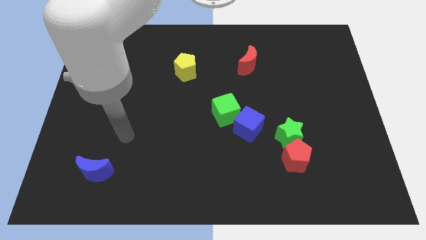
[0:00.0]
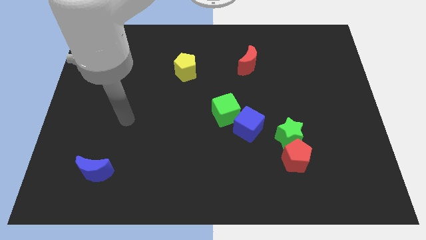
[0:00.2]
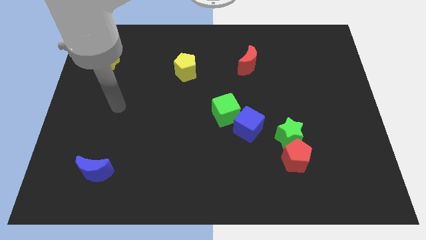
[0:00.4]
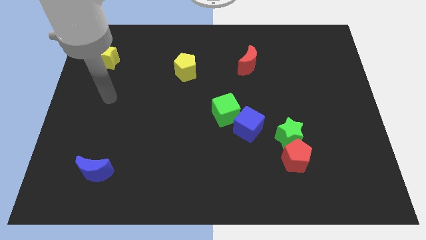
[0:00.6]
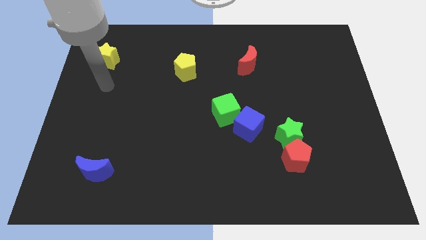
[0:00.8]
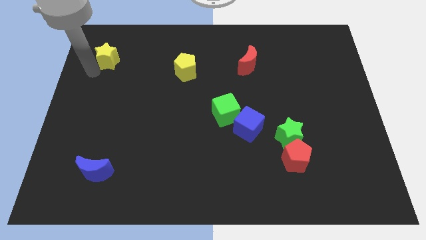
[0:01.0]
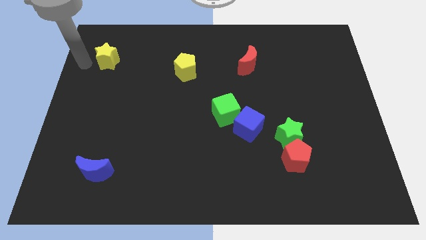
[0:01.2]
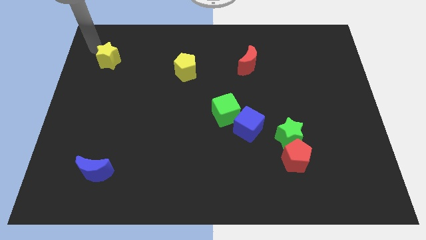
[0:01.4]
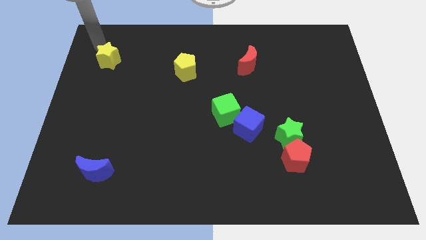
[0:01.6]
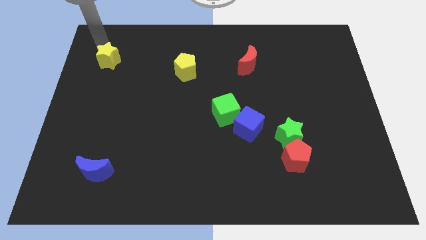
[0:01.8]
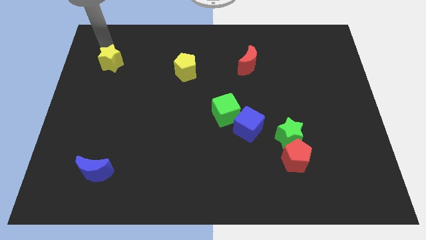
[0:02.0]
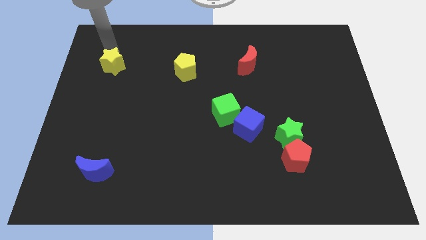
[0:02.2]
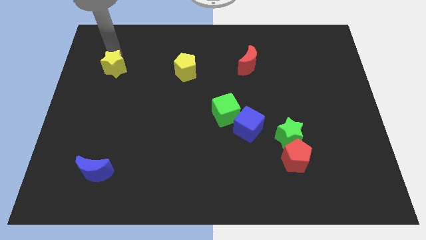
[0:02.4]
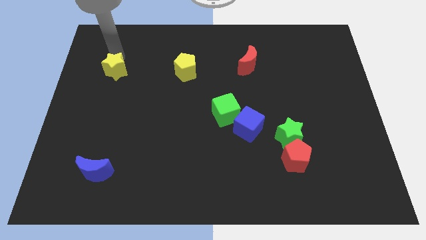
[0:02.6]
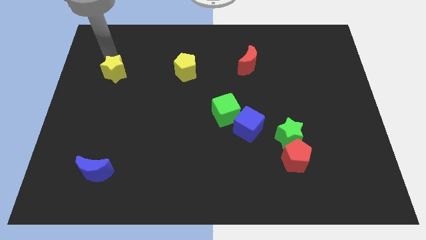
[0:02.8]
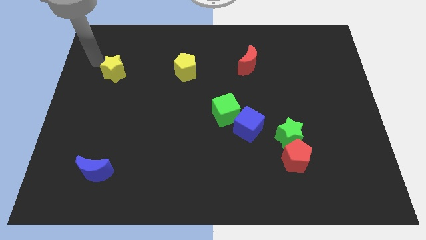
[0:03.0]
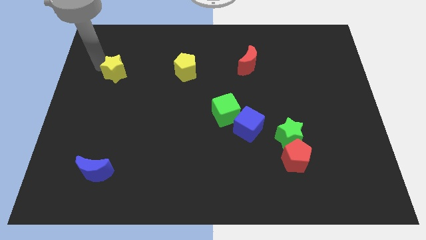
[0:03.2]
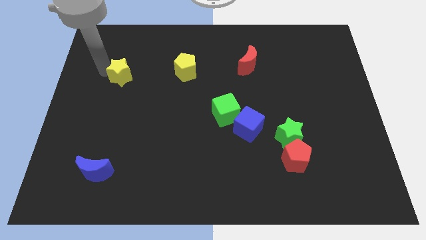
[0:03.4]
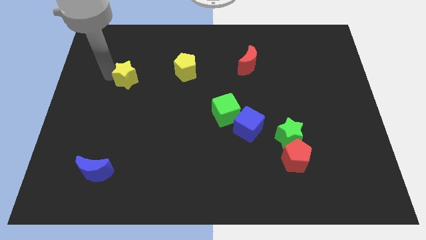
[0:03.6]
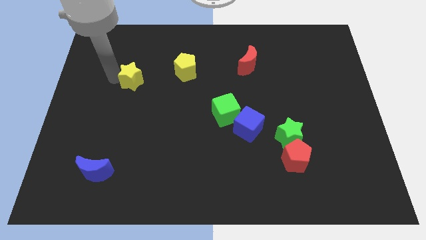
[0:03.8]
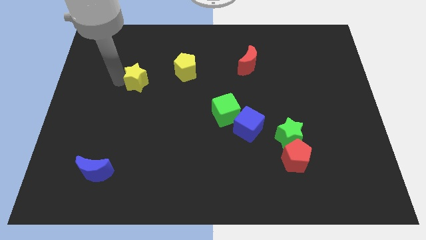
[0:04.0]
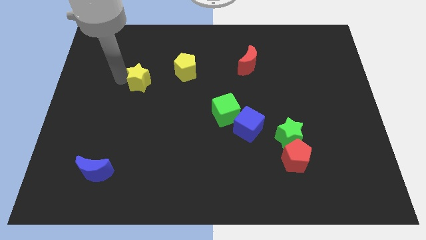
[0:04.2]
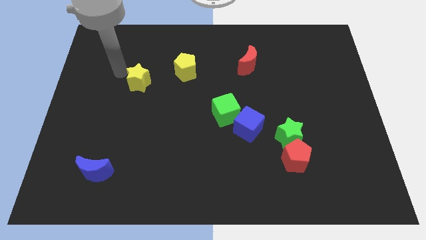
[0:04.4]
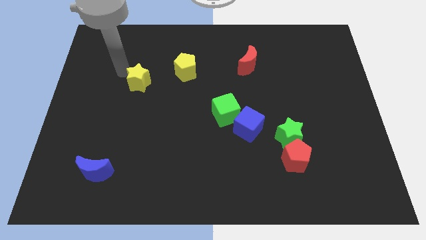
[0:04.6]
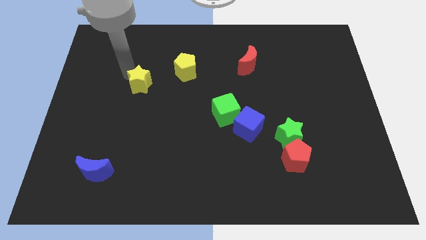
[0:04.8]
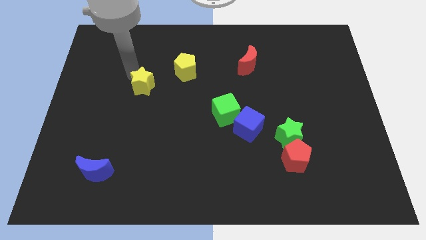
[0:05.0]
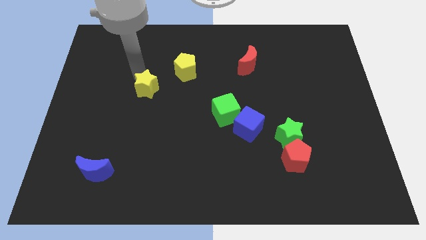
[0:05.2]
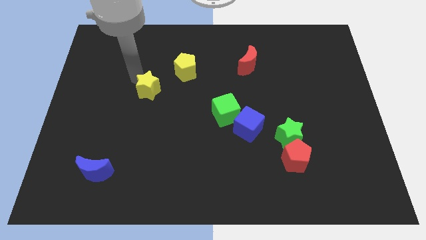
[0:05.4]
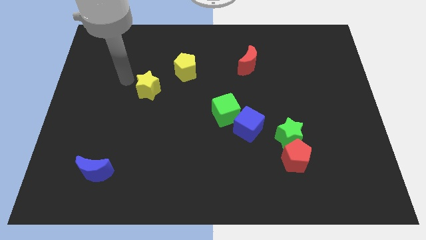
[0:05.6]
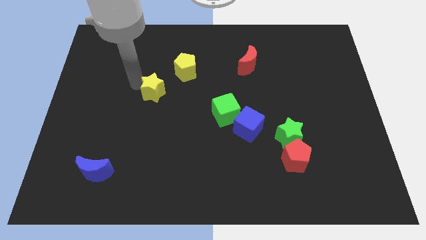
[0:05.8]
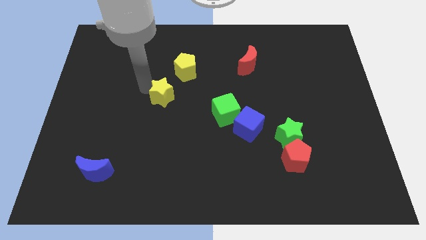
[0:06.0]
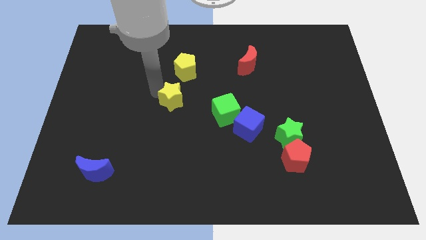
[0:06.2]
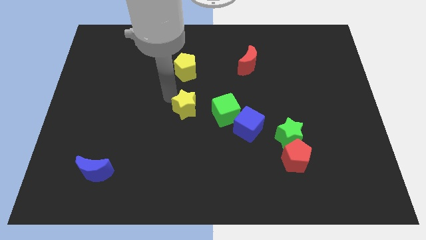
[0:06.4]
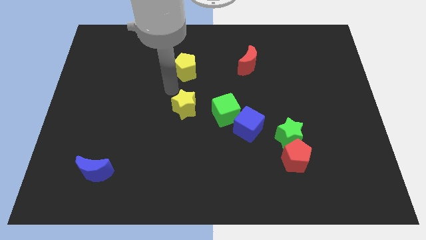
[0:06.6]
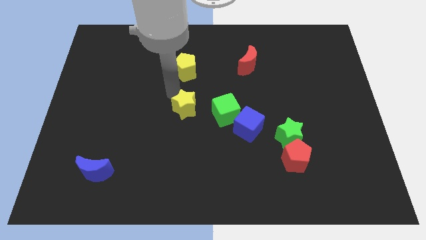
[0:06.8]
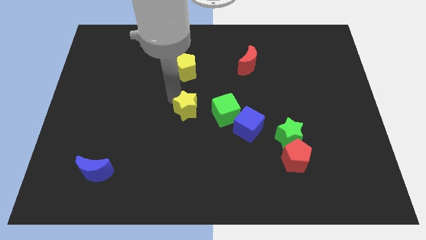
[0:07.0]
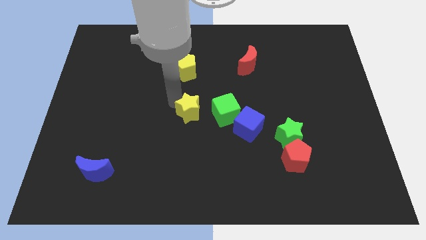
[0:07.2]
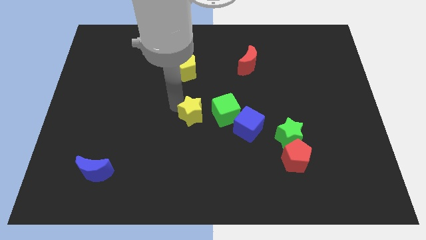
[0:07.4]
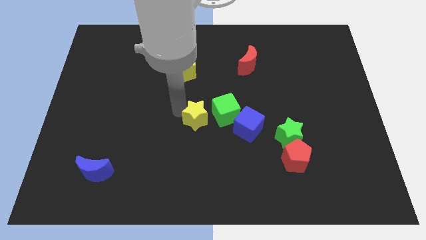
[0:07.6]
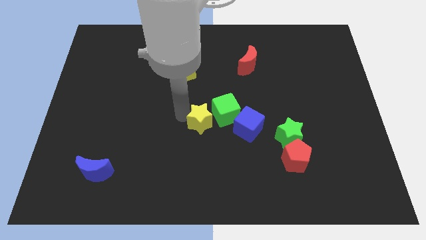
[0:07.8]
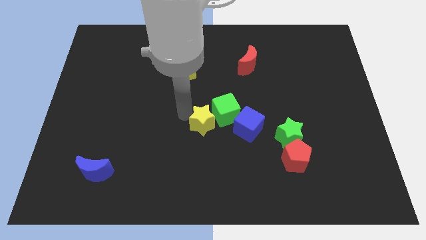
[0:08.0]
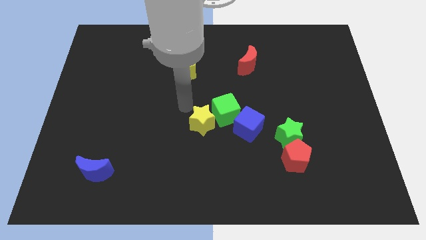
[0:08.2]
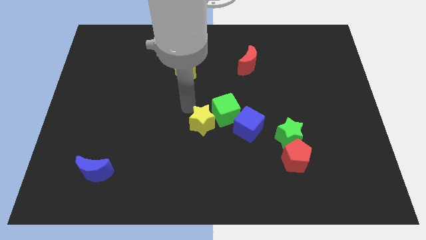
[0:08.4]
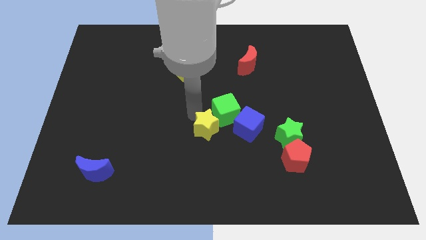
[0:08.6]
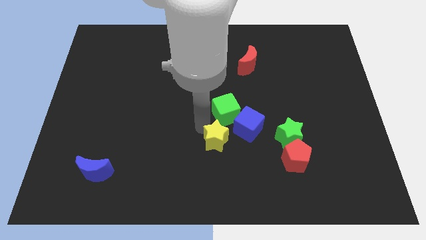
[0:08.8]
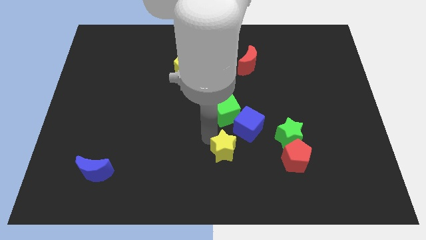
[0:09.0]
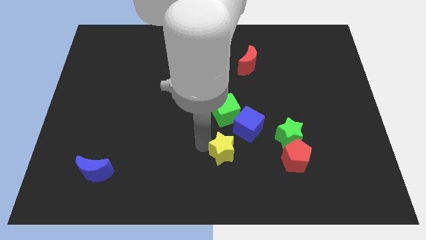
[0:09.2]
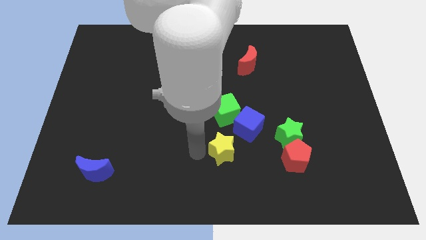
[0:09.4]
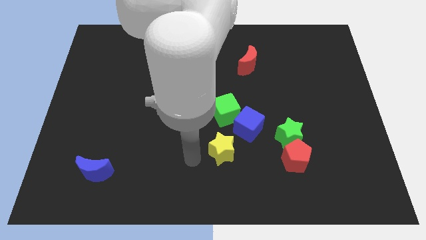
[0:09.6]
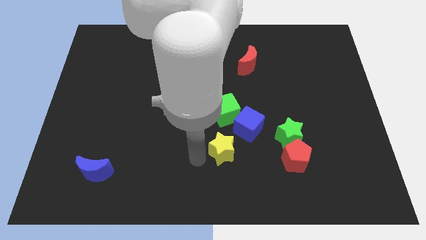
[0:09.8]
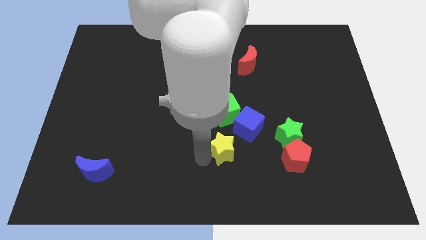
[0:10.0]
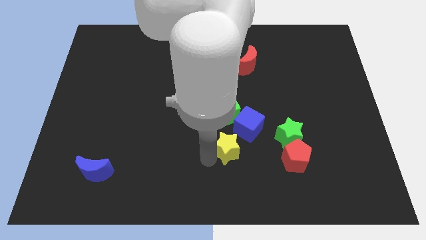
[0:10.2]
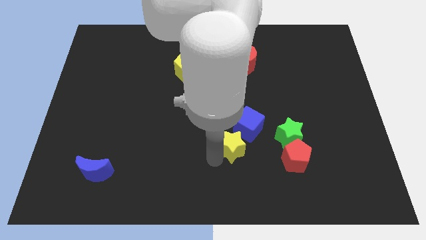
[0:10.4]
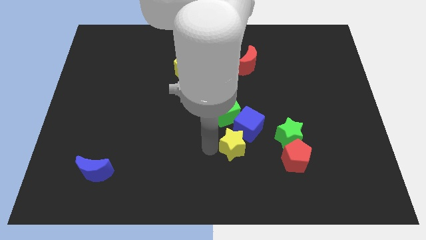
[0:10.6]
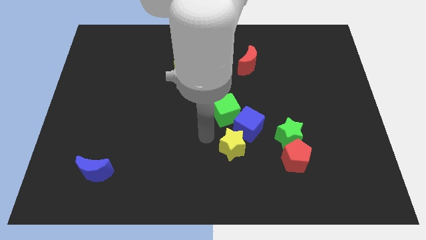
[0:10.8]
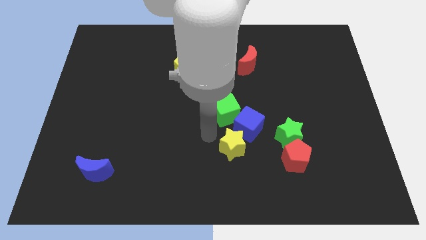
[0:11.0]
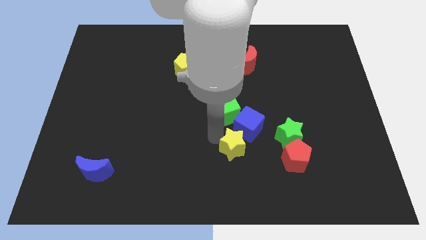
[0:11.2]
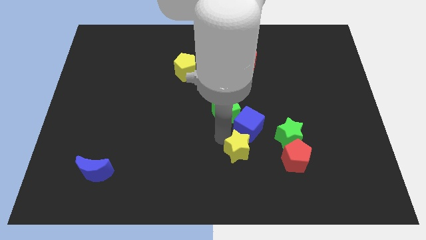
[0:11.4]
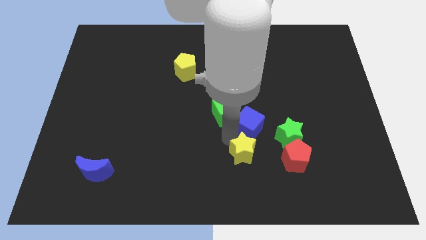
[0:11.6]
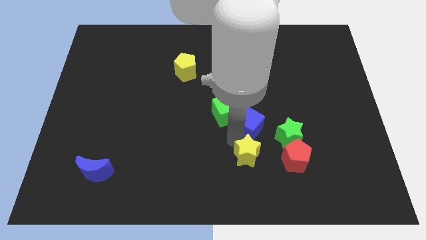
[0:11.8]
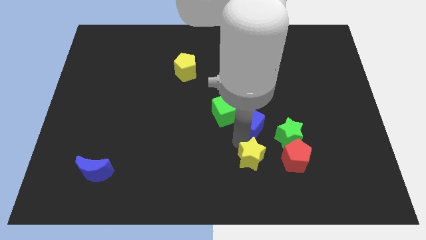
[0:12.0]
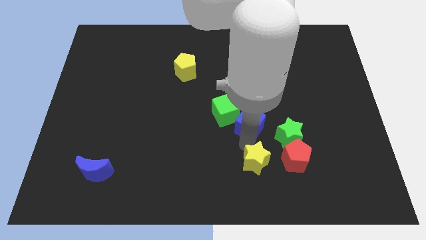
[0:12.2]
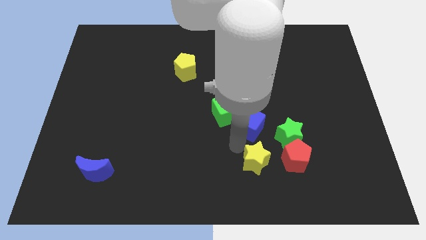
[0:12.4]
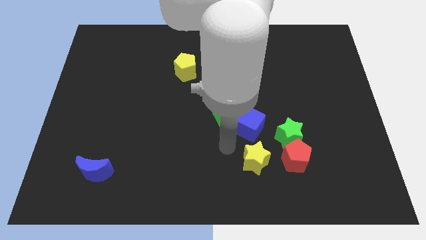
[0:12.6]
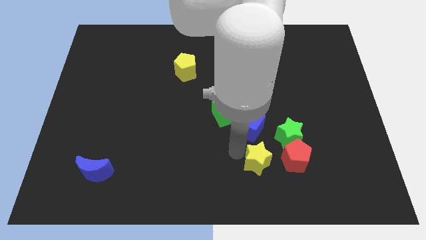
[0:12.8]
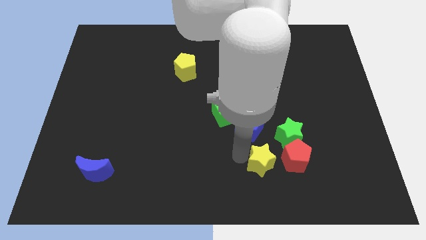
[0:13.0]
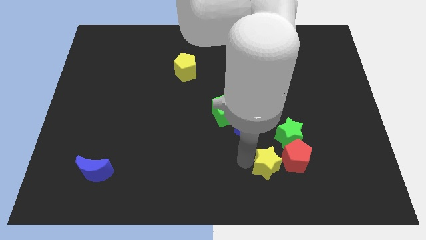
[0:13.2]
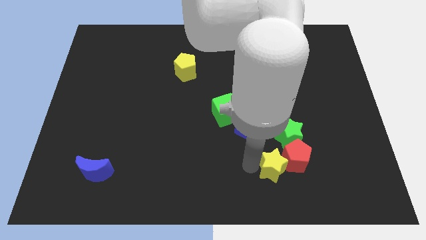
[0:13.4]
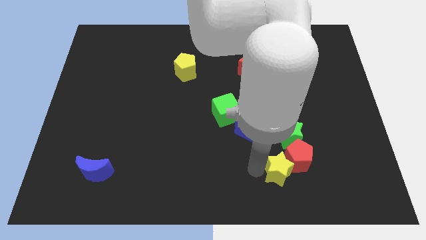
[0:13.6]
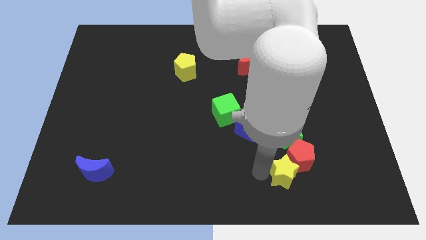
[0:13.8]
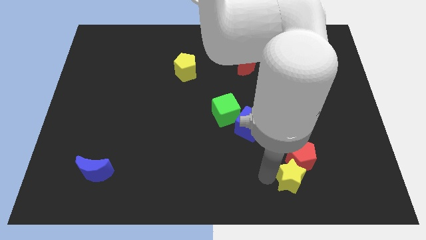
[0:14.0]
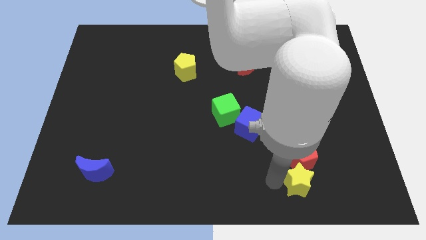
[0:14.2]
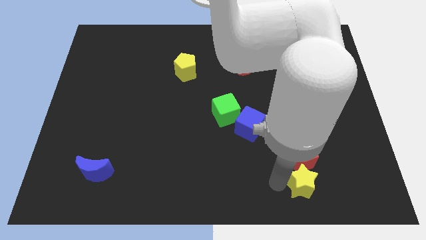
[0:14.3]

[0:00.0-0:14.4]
push the yellow star to the bottom right side of the red pentagon
